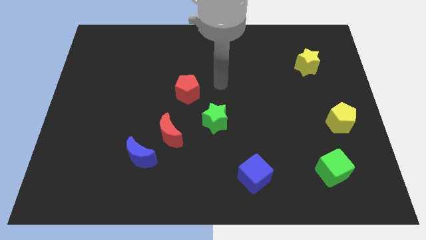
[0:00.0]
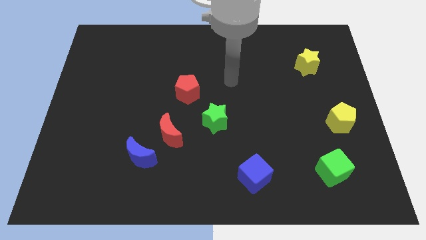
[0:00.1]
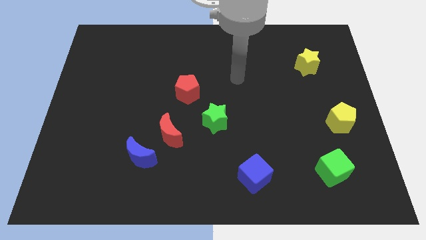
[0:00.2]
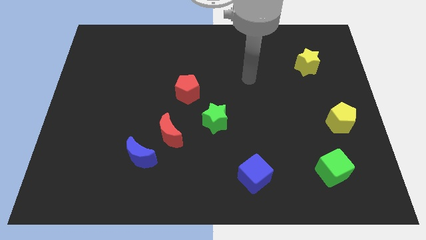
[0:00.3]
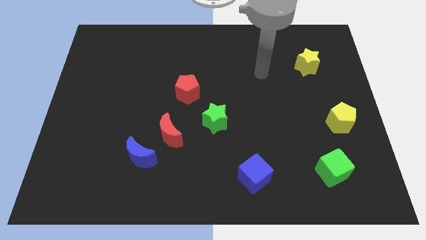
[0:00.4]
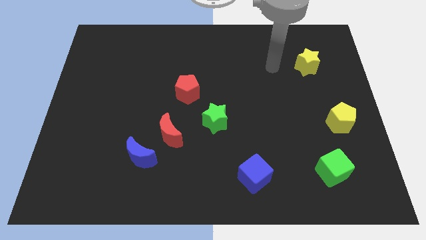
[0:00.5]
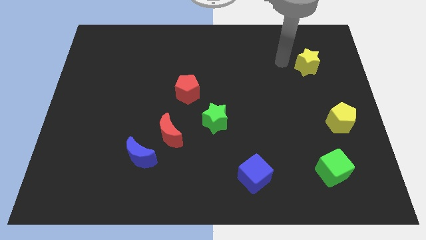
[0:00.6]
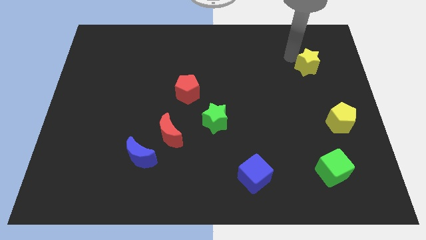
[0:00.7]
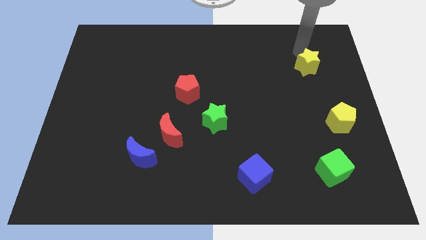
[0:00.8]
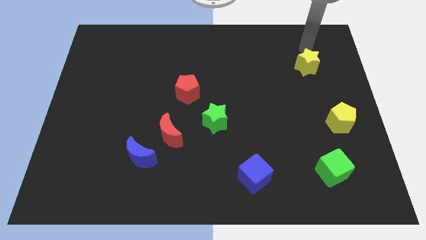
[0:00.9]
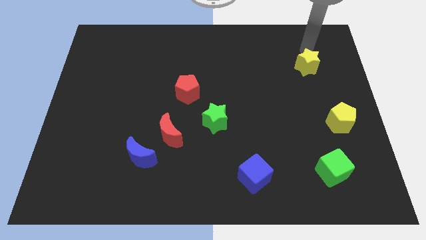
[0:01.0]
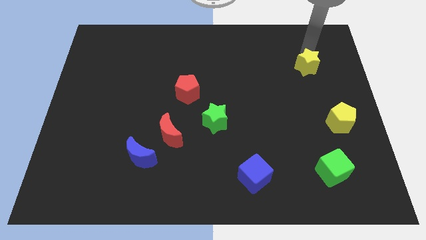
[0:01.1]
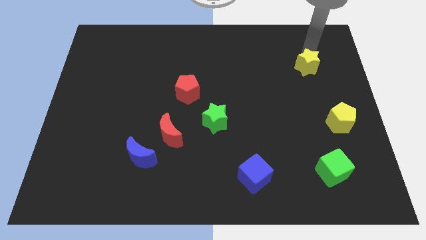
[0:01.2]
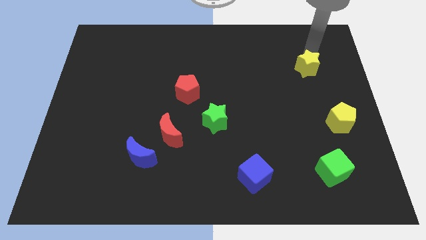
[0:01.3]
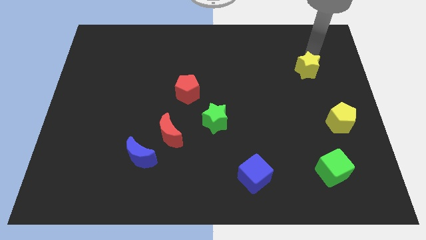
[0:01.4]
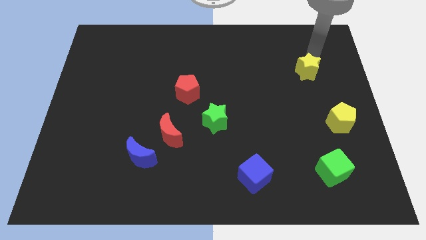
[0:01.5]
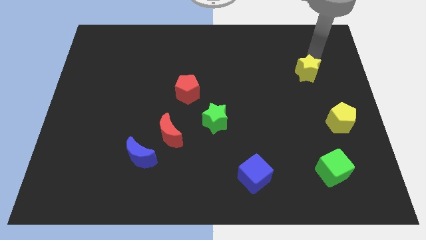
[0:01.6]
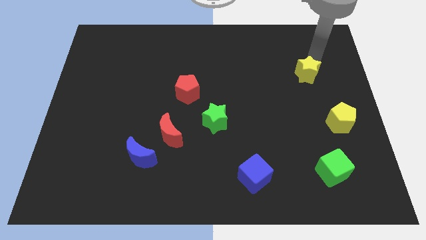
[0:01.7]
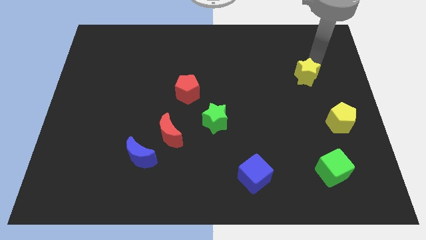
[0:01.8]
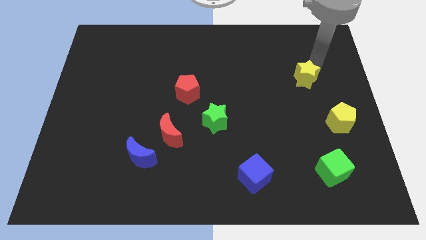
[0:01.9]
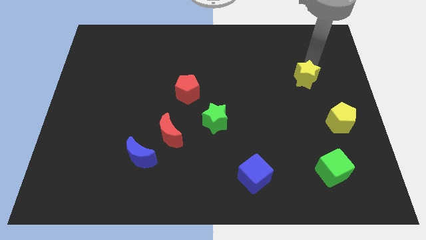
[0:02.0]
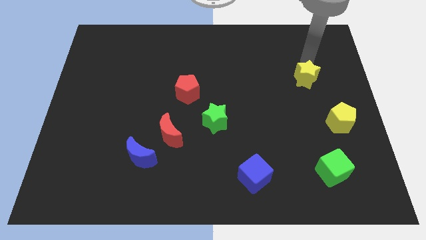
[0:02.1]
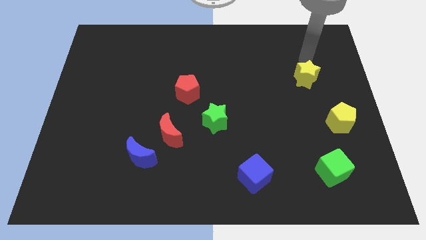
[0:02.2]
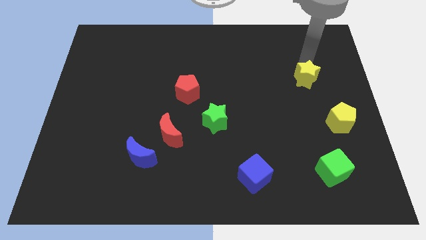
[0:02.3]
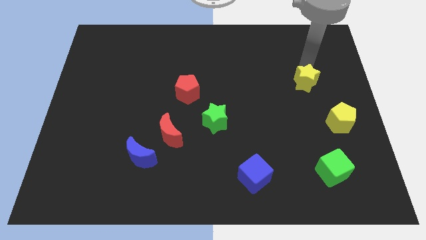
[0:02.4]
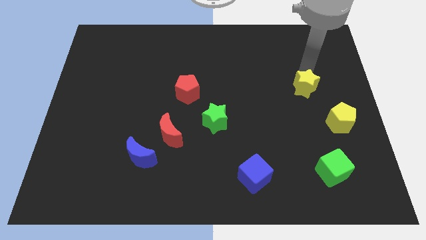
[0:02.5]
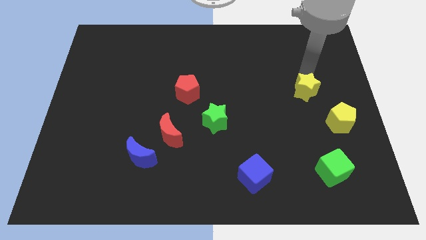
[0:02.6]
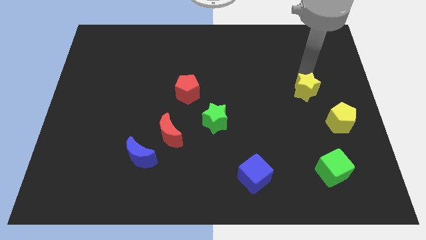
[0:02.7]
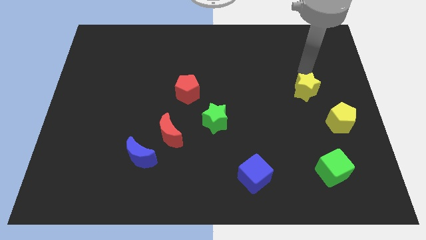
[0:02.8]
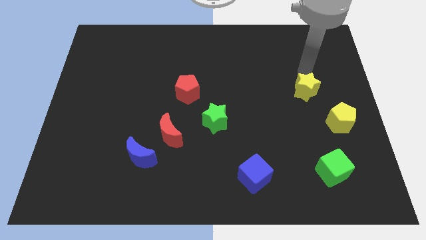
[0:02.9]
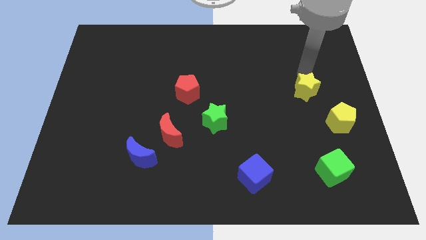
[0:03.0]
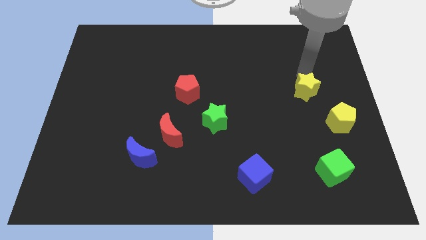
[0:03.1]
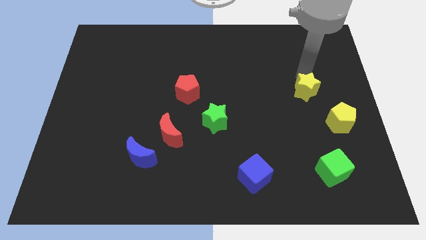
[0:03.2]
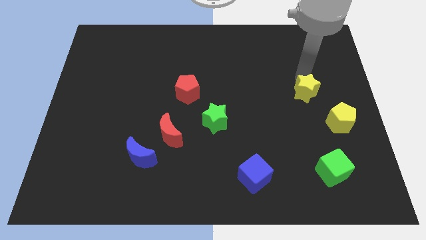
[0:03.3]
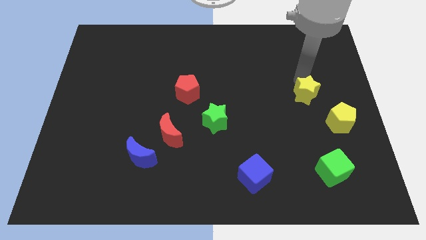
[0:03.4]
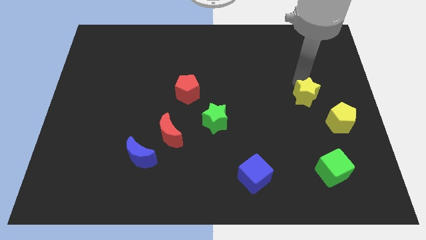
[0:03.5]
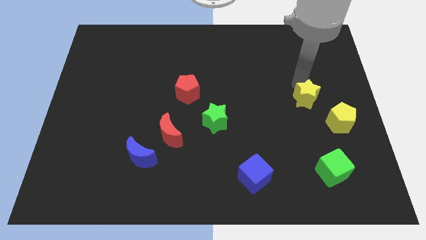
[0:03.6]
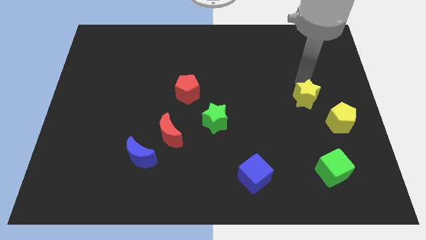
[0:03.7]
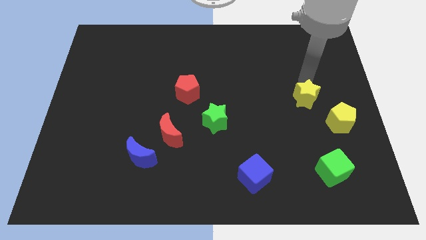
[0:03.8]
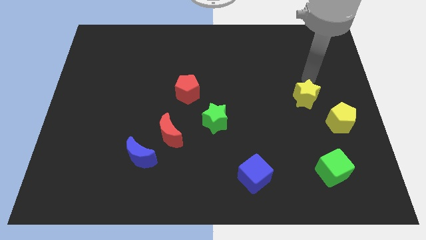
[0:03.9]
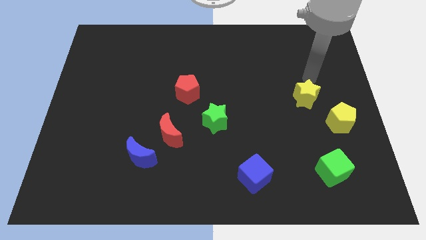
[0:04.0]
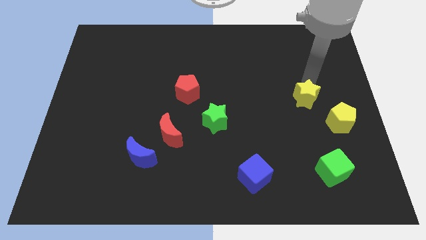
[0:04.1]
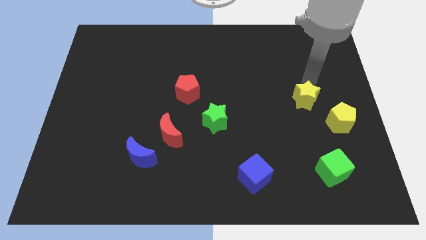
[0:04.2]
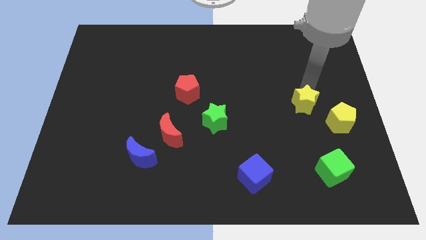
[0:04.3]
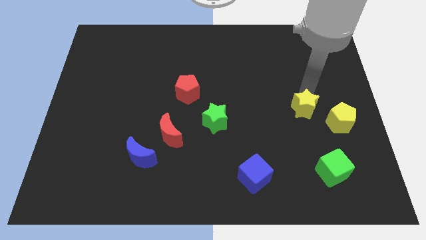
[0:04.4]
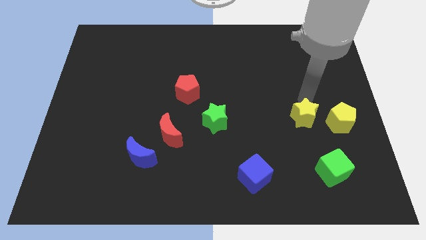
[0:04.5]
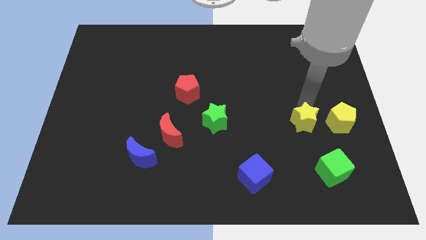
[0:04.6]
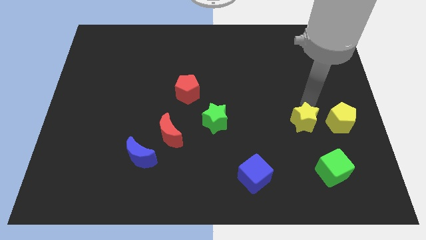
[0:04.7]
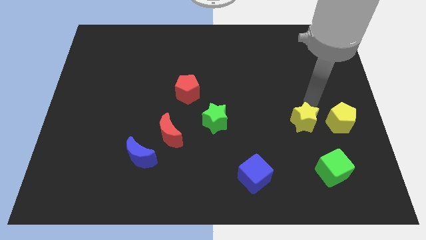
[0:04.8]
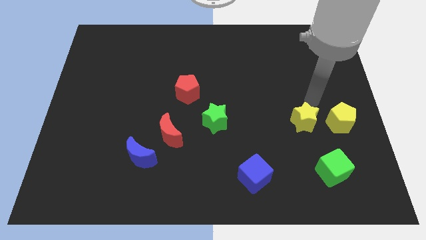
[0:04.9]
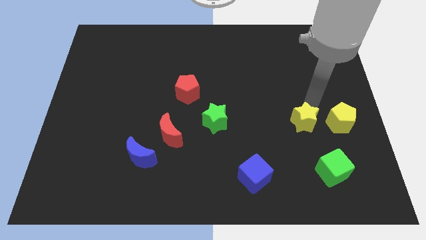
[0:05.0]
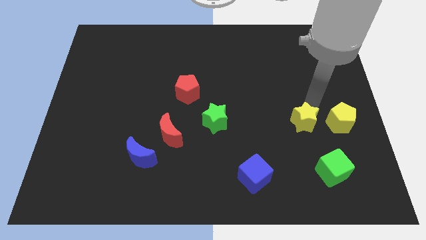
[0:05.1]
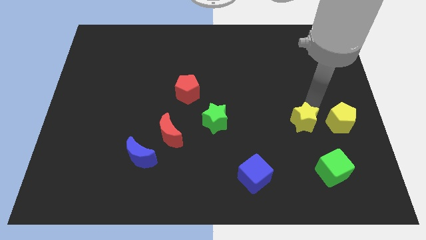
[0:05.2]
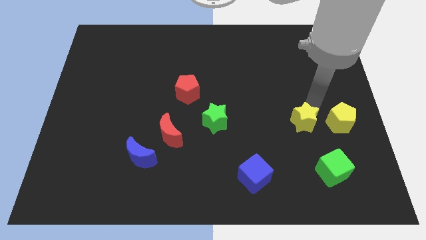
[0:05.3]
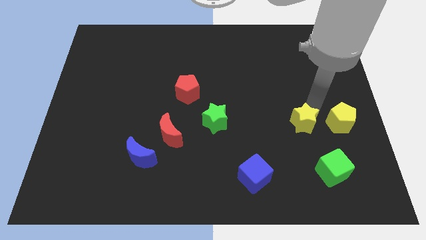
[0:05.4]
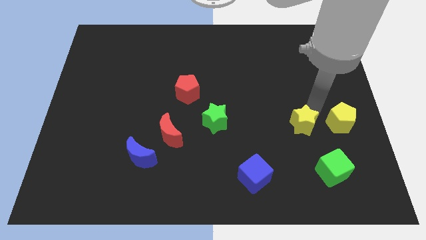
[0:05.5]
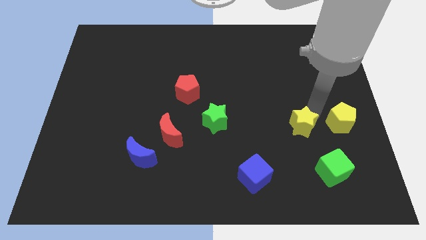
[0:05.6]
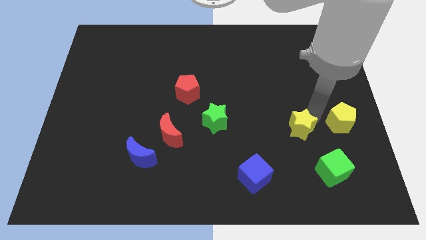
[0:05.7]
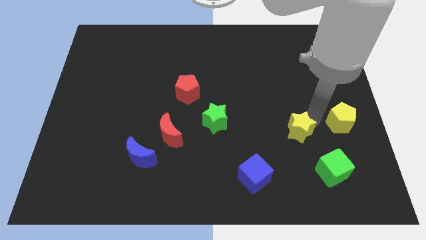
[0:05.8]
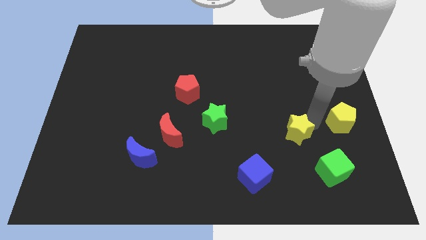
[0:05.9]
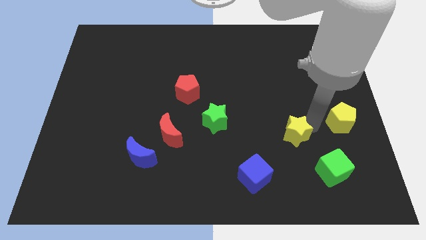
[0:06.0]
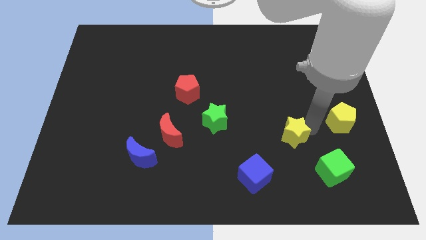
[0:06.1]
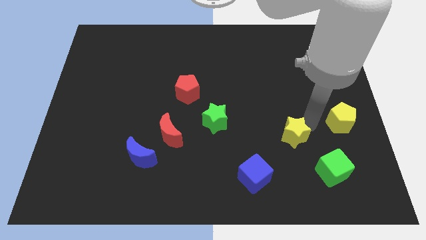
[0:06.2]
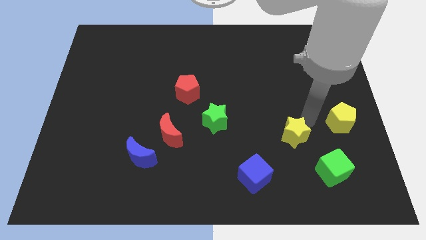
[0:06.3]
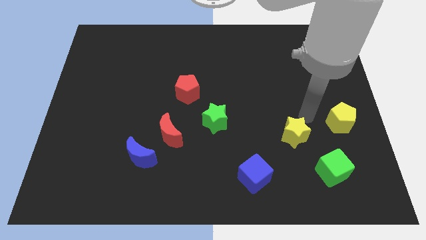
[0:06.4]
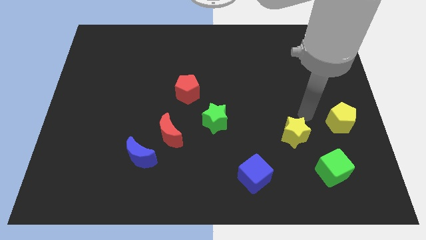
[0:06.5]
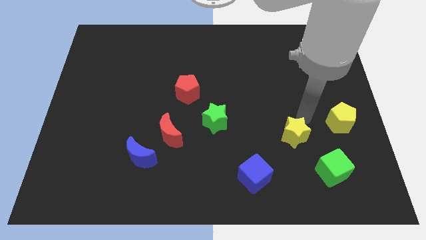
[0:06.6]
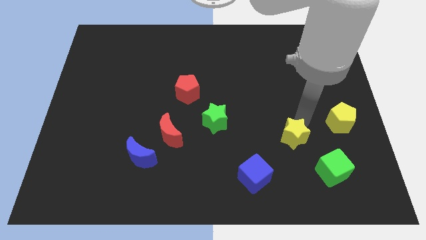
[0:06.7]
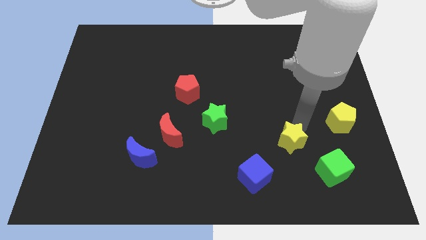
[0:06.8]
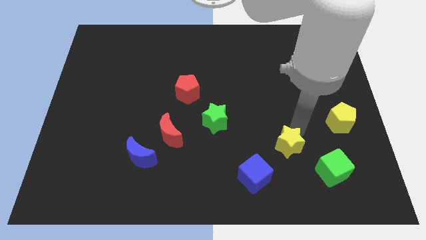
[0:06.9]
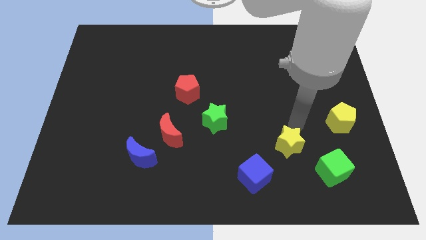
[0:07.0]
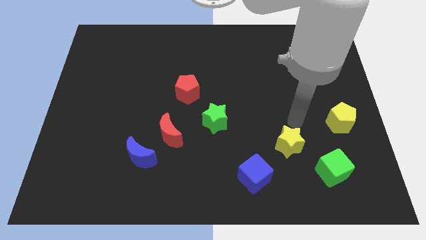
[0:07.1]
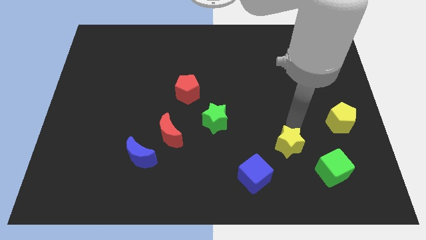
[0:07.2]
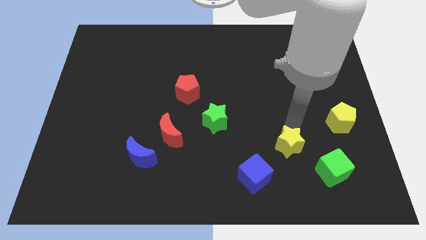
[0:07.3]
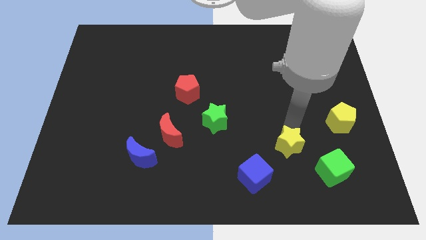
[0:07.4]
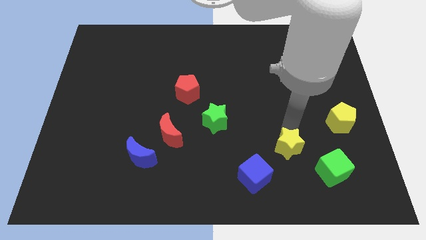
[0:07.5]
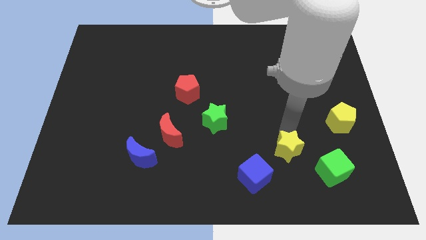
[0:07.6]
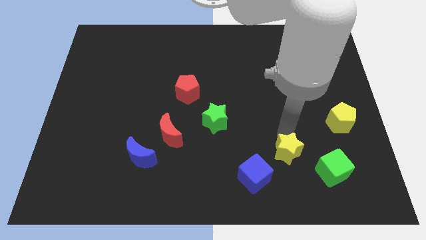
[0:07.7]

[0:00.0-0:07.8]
slide the yellow star just left of the green cube

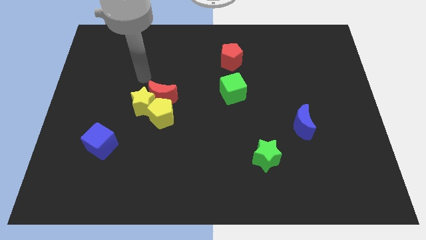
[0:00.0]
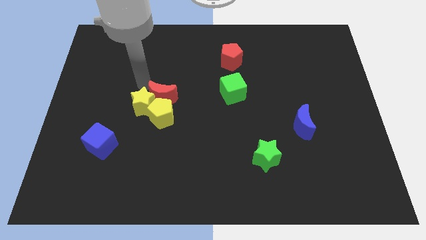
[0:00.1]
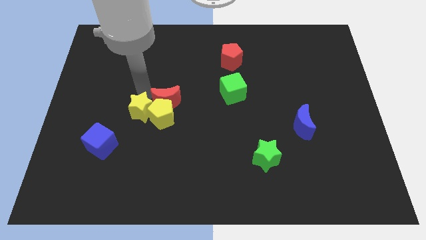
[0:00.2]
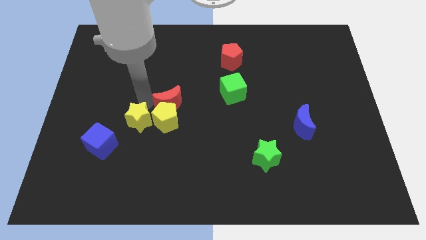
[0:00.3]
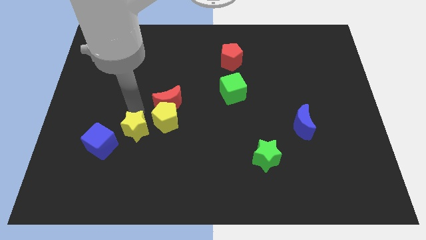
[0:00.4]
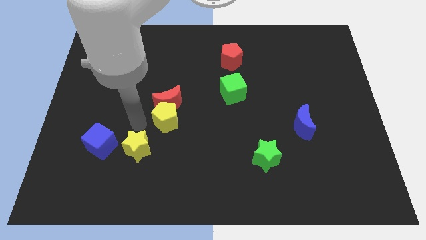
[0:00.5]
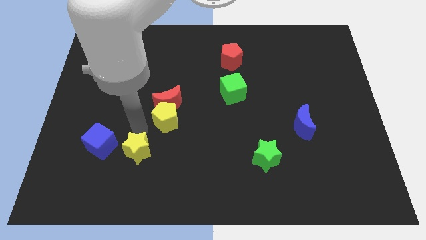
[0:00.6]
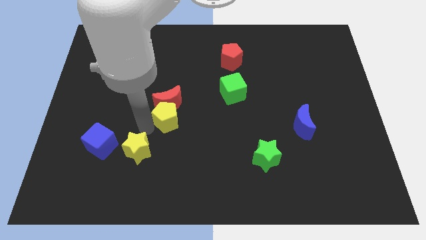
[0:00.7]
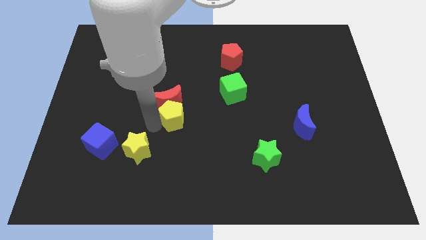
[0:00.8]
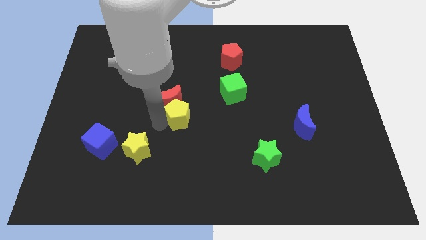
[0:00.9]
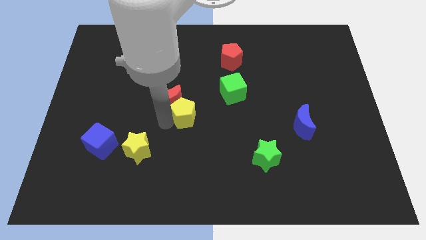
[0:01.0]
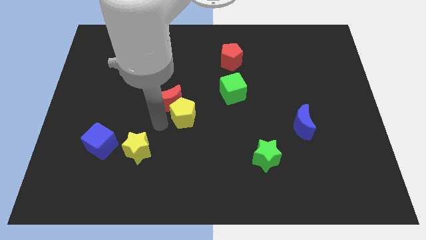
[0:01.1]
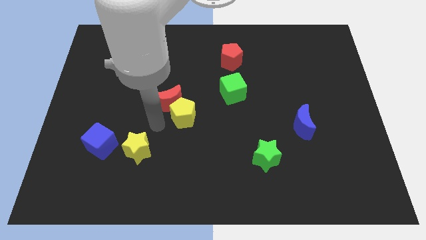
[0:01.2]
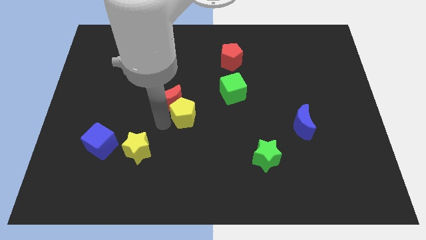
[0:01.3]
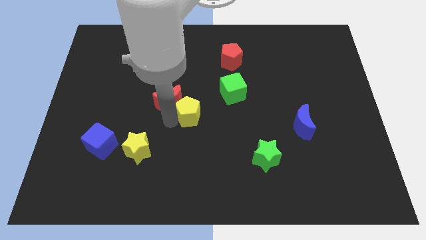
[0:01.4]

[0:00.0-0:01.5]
move the yellow pentagon to the bottom left of the green cube
